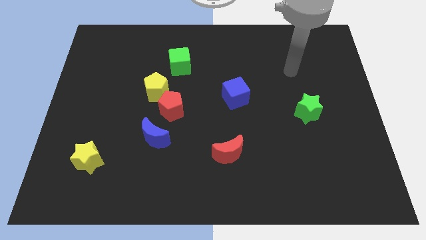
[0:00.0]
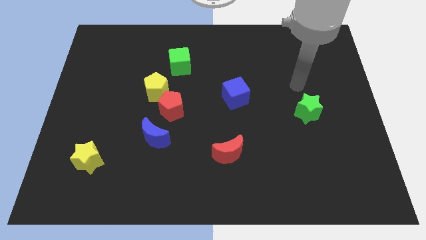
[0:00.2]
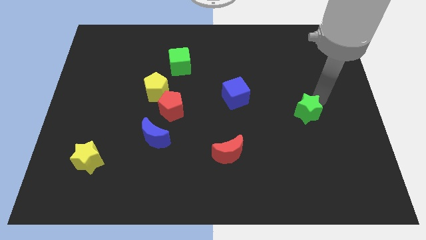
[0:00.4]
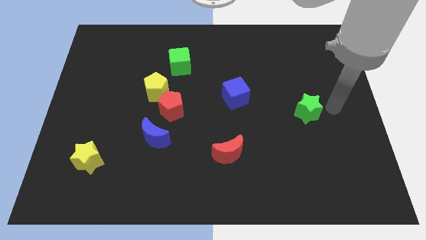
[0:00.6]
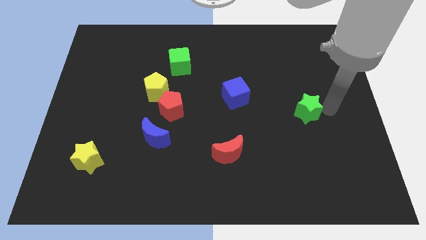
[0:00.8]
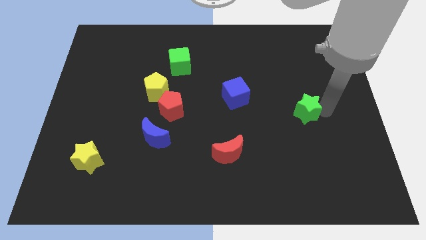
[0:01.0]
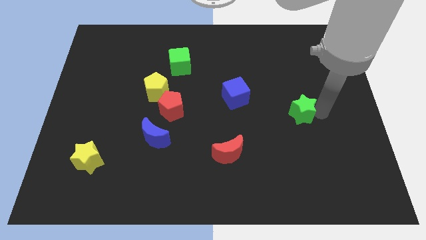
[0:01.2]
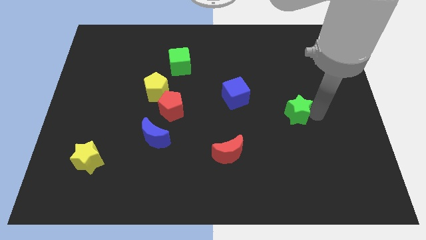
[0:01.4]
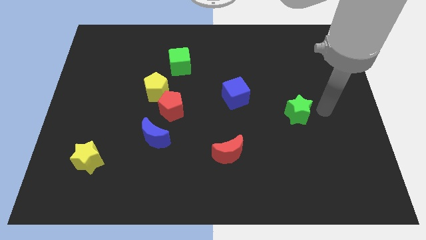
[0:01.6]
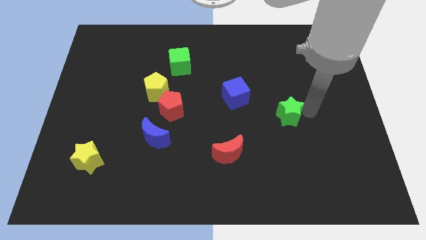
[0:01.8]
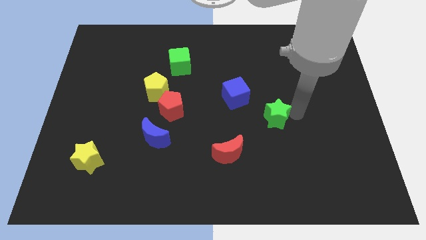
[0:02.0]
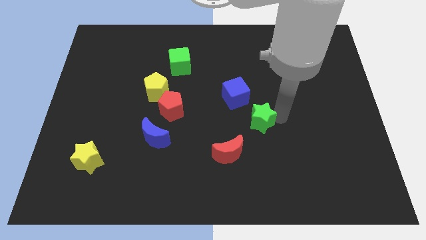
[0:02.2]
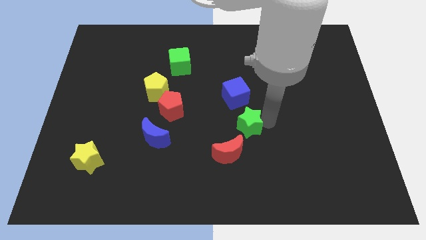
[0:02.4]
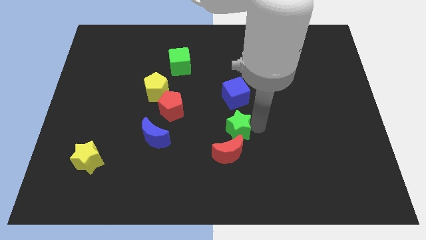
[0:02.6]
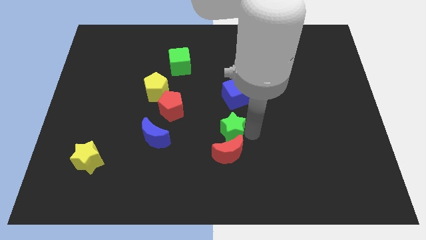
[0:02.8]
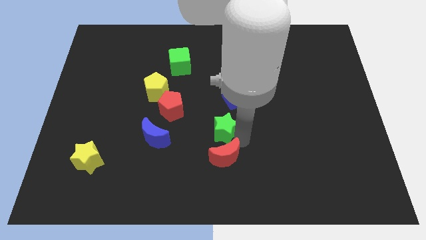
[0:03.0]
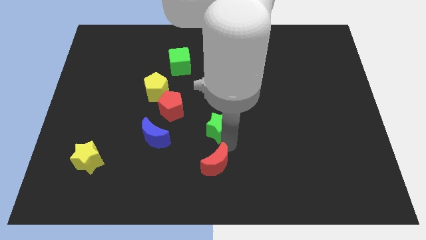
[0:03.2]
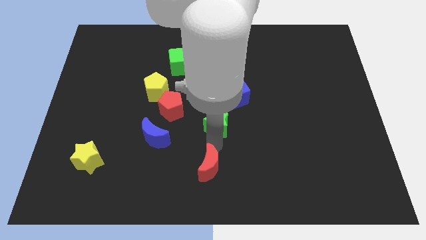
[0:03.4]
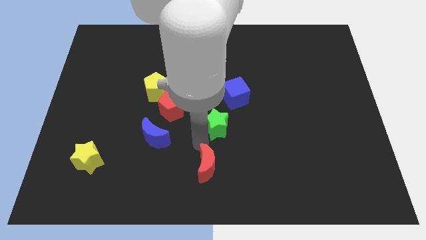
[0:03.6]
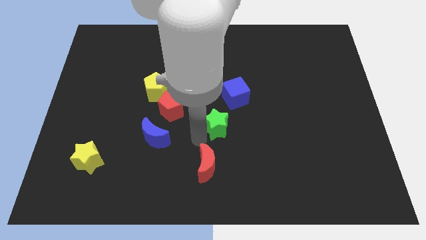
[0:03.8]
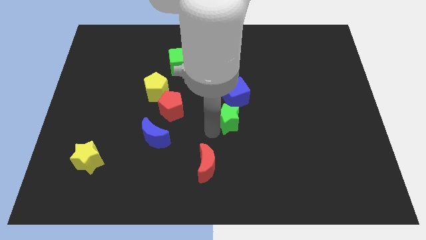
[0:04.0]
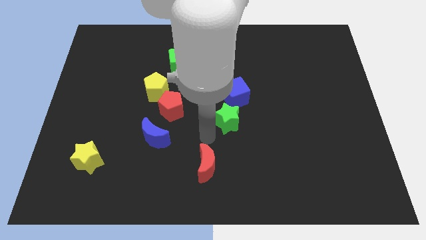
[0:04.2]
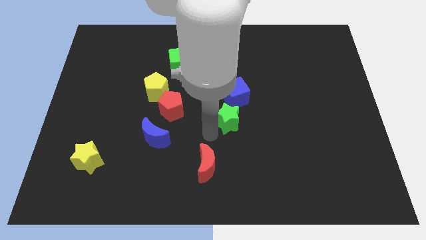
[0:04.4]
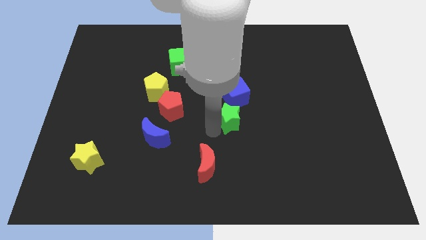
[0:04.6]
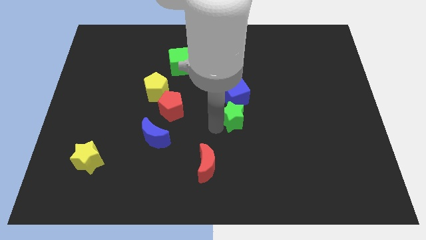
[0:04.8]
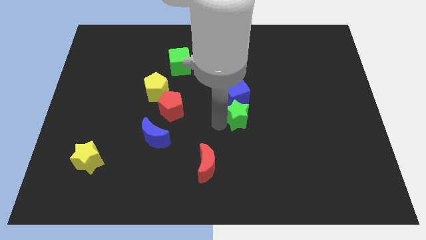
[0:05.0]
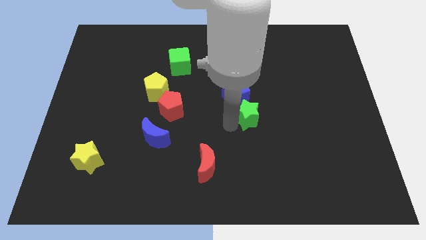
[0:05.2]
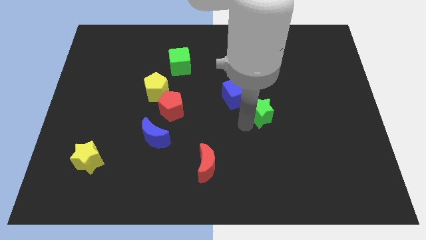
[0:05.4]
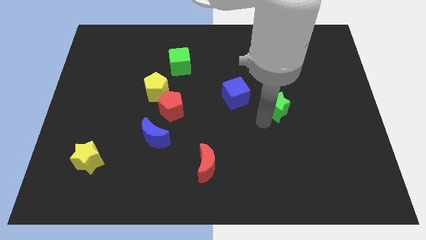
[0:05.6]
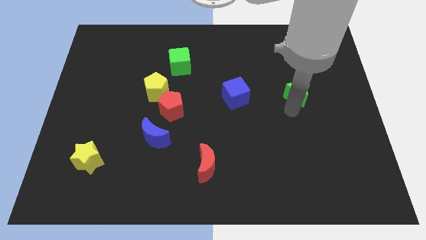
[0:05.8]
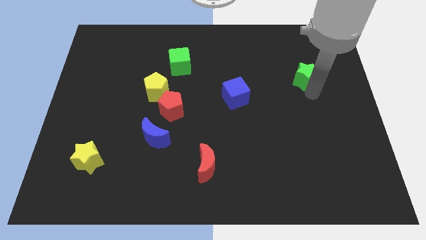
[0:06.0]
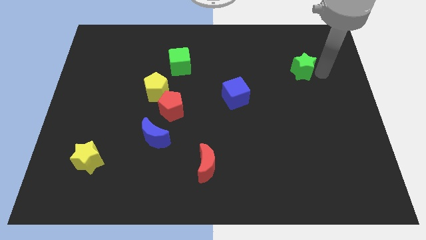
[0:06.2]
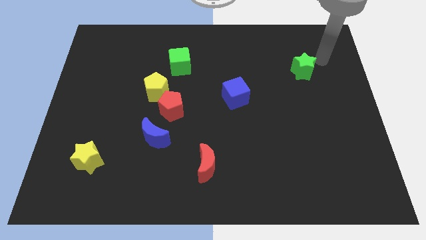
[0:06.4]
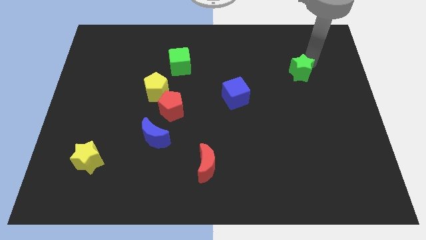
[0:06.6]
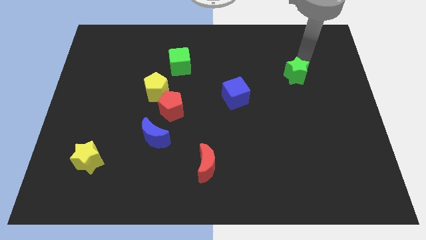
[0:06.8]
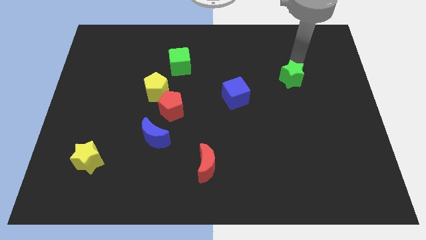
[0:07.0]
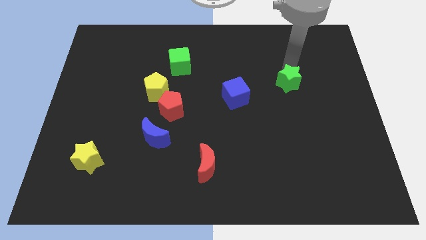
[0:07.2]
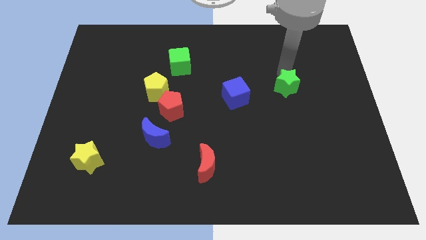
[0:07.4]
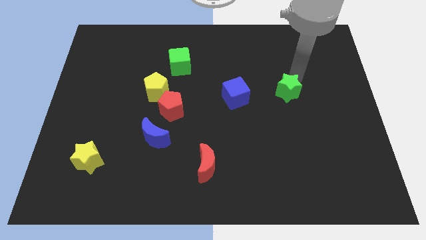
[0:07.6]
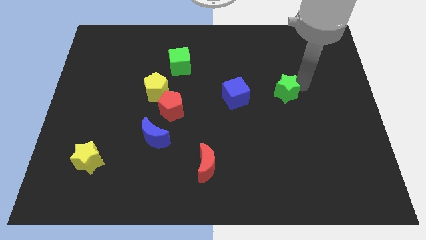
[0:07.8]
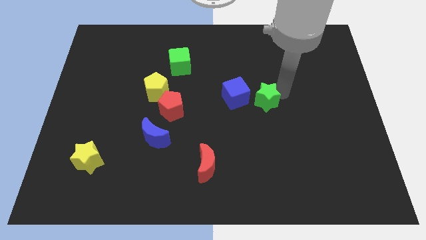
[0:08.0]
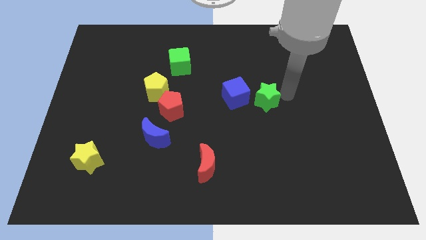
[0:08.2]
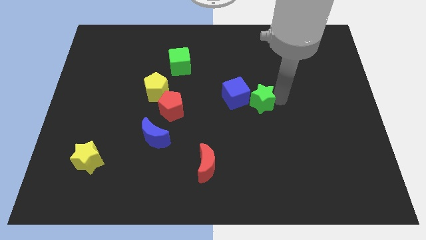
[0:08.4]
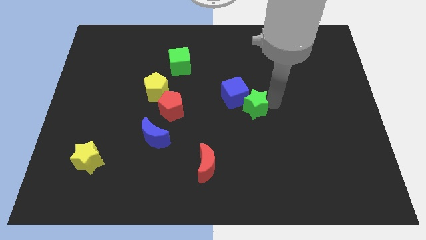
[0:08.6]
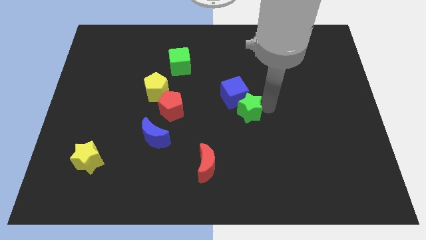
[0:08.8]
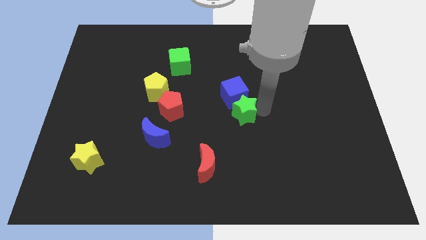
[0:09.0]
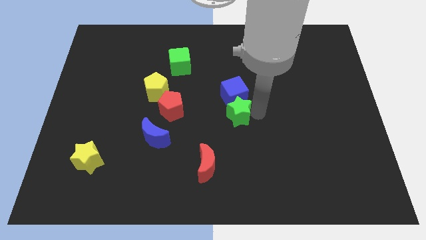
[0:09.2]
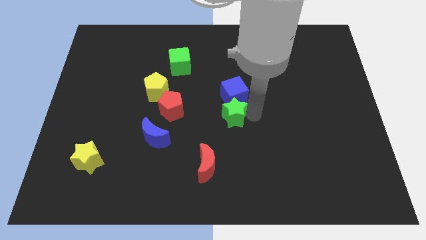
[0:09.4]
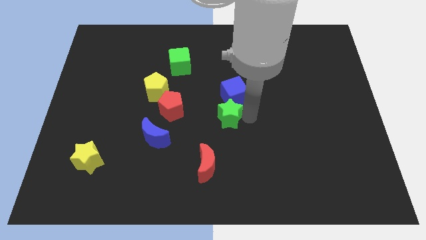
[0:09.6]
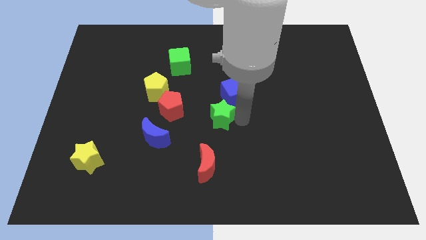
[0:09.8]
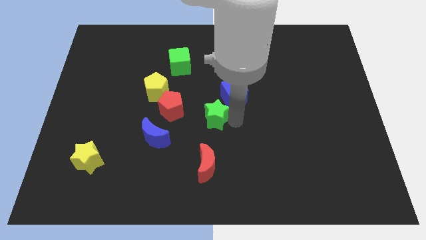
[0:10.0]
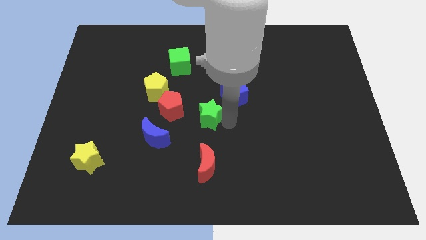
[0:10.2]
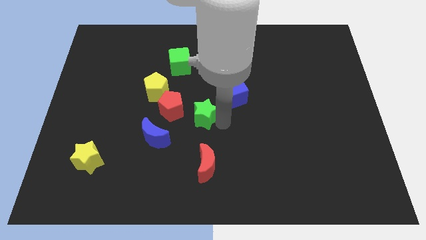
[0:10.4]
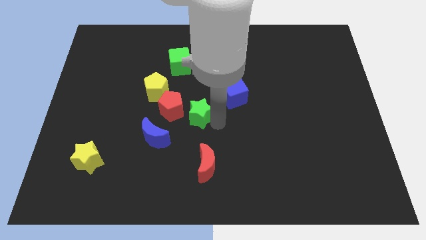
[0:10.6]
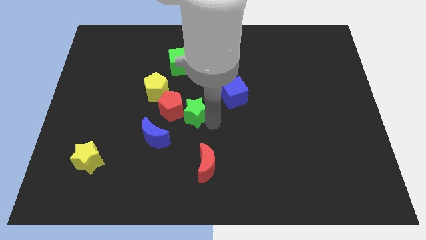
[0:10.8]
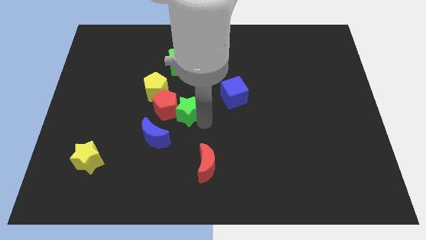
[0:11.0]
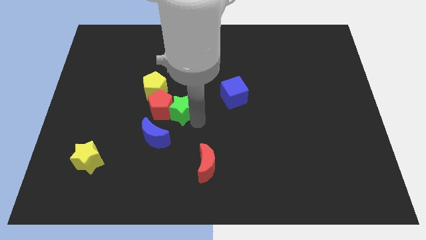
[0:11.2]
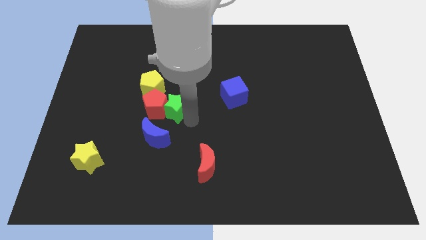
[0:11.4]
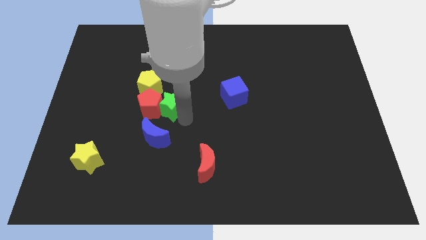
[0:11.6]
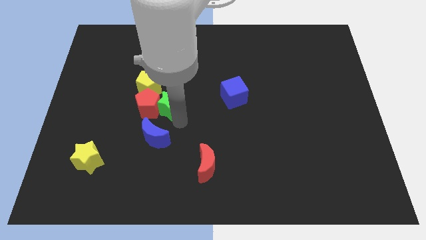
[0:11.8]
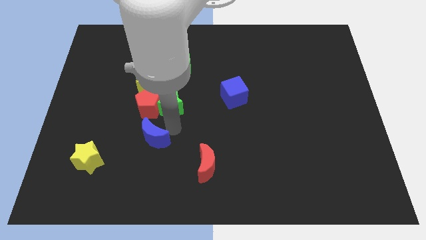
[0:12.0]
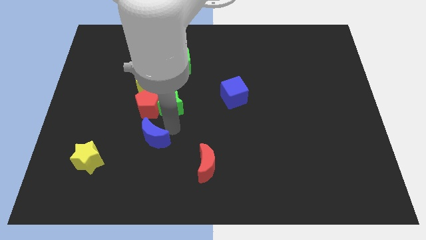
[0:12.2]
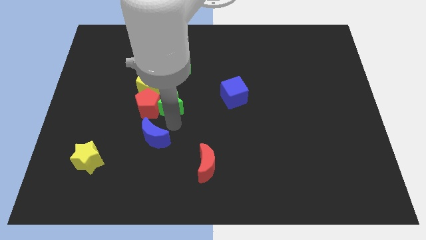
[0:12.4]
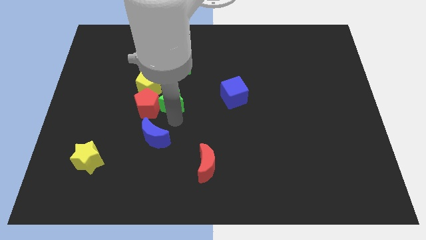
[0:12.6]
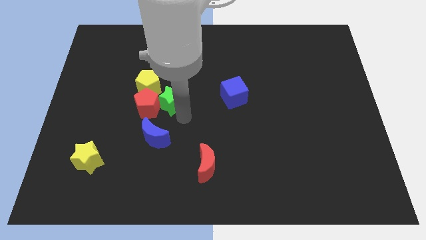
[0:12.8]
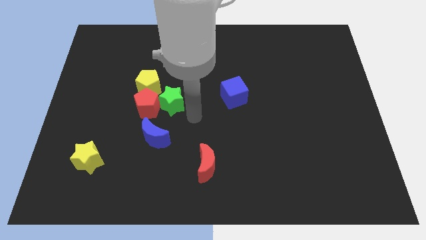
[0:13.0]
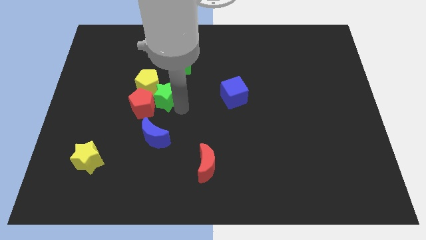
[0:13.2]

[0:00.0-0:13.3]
put the green star to the yellow pentagon
